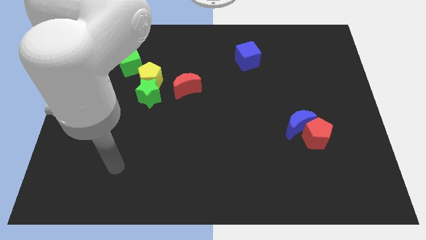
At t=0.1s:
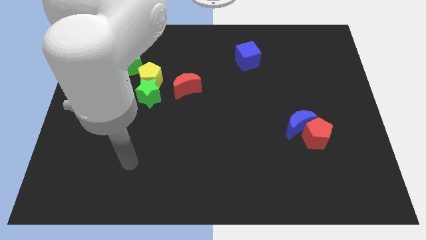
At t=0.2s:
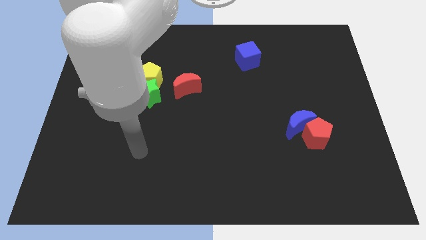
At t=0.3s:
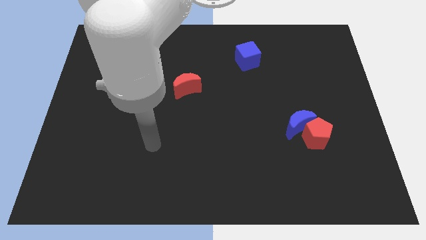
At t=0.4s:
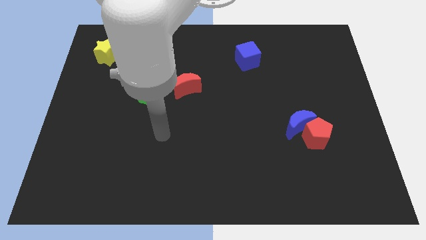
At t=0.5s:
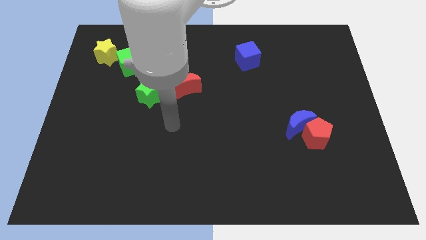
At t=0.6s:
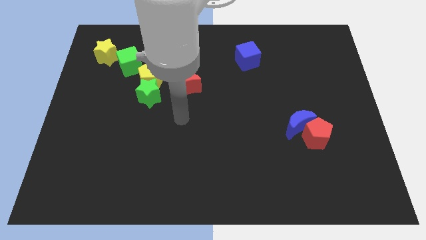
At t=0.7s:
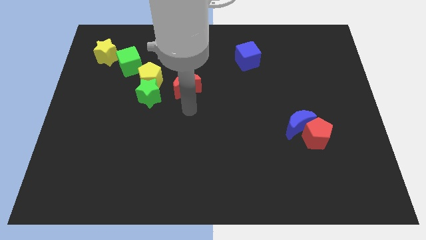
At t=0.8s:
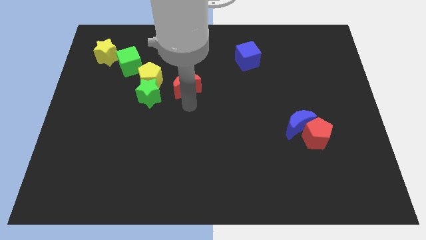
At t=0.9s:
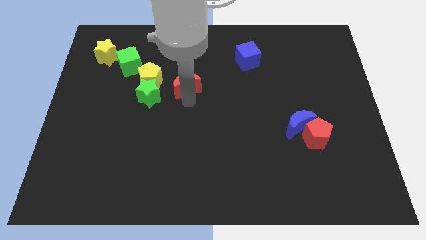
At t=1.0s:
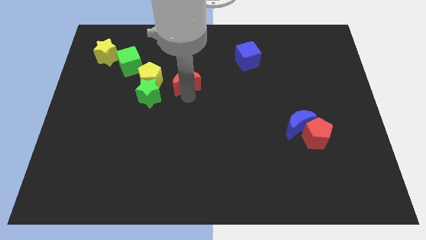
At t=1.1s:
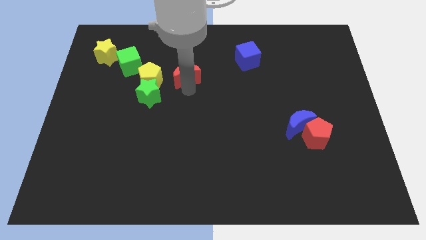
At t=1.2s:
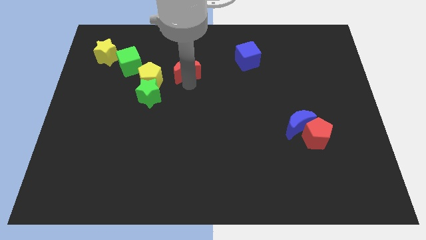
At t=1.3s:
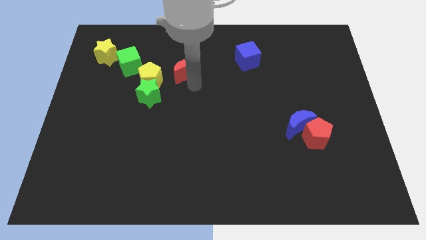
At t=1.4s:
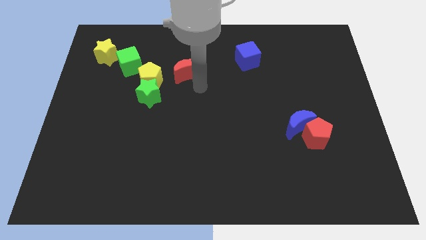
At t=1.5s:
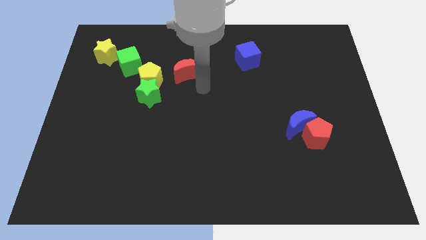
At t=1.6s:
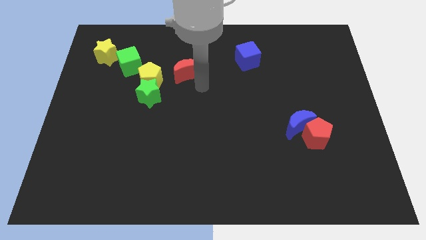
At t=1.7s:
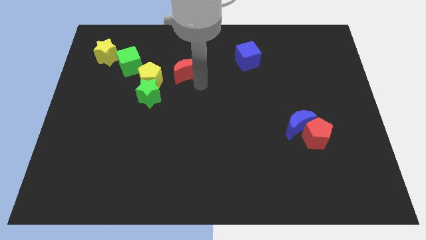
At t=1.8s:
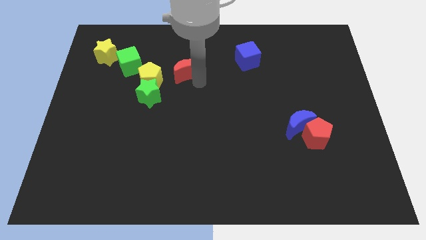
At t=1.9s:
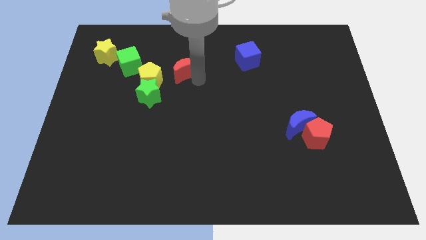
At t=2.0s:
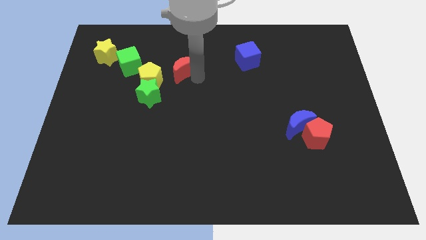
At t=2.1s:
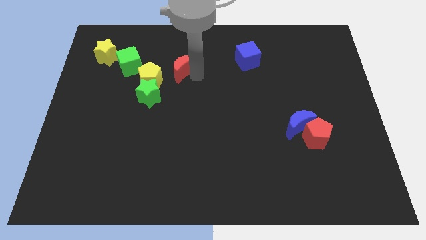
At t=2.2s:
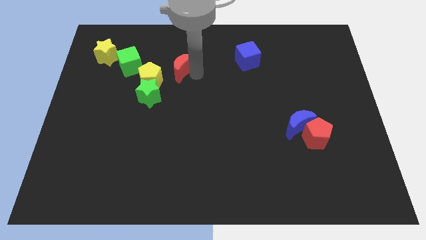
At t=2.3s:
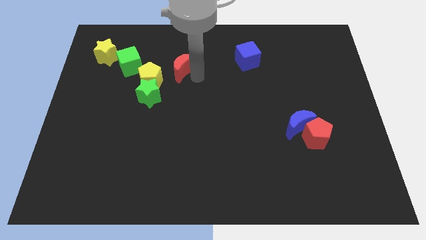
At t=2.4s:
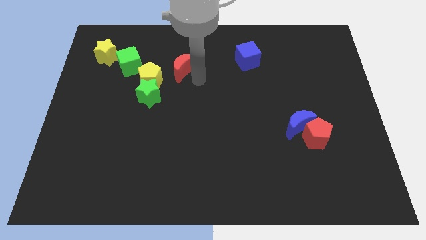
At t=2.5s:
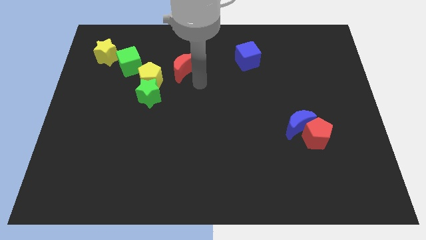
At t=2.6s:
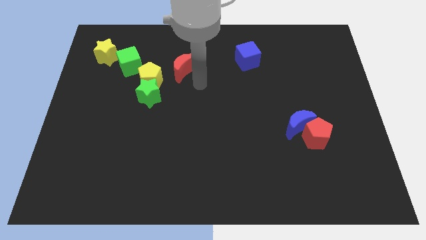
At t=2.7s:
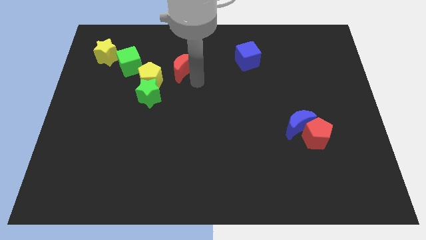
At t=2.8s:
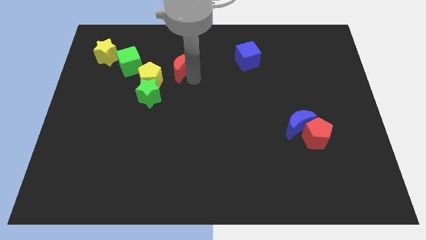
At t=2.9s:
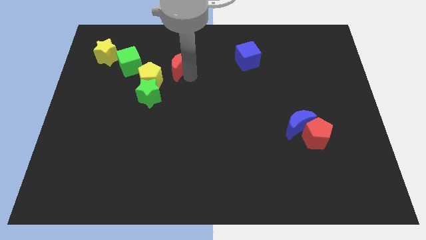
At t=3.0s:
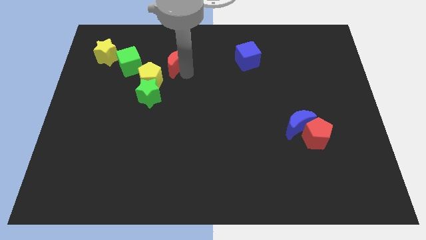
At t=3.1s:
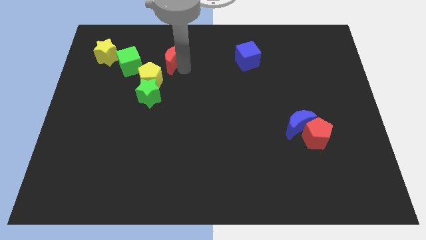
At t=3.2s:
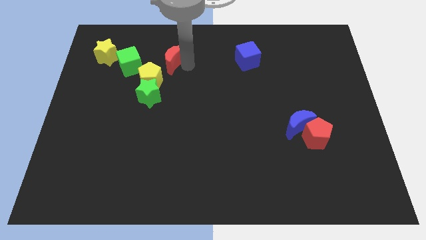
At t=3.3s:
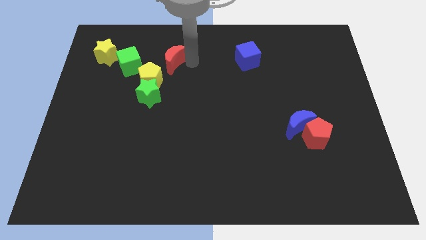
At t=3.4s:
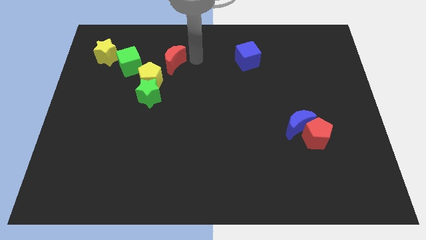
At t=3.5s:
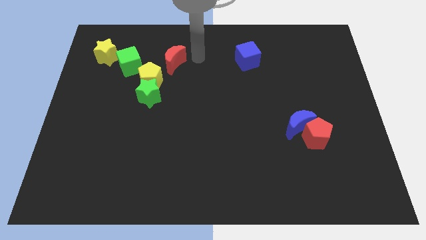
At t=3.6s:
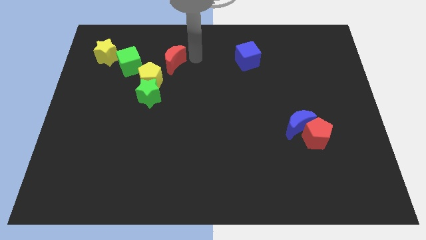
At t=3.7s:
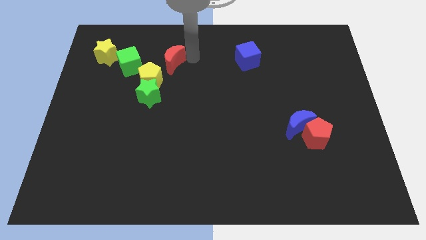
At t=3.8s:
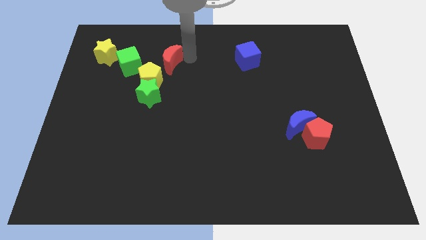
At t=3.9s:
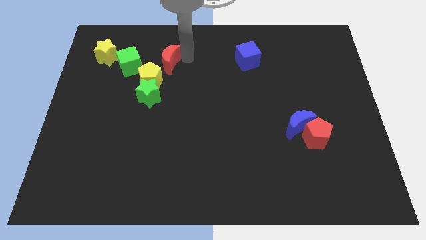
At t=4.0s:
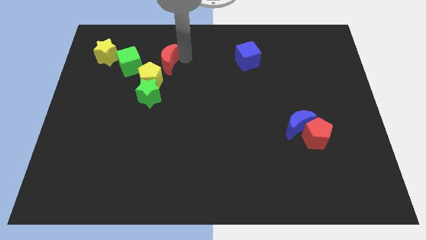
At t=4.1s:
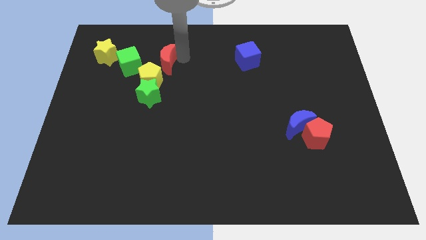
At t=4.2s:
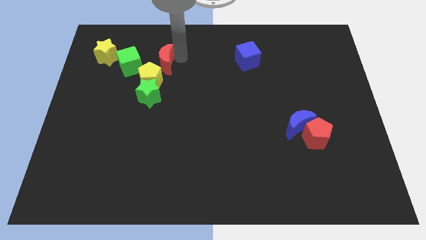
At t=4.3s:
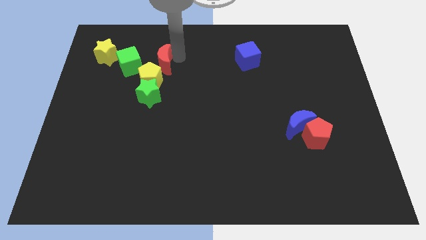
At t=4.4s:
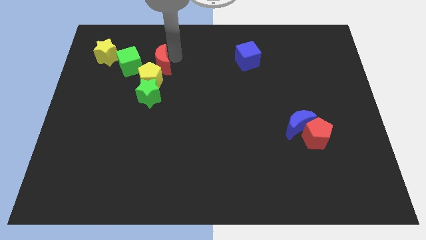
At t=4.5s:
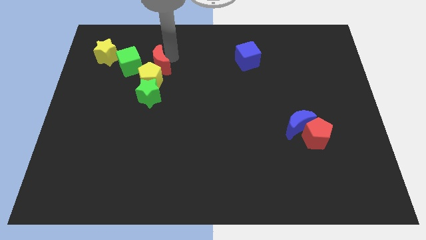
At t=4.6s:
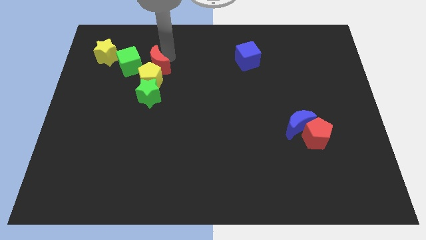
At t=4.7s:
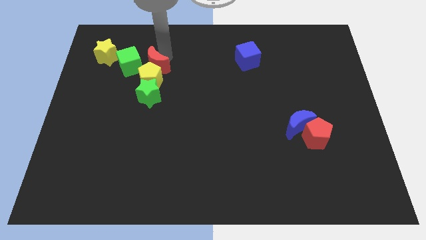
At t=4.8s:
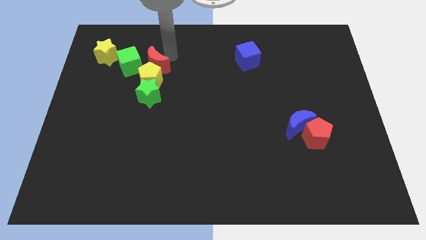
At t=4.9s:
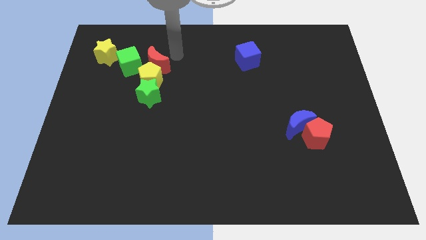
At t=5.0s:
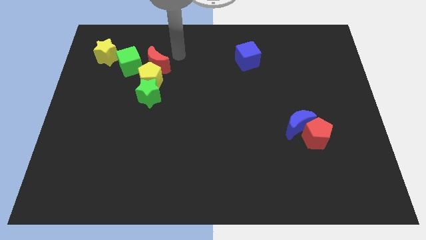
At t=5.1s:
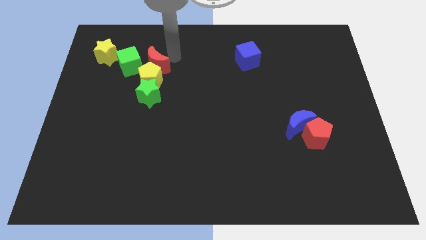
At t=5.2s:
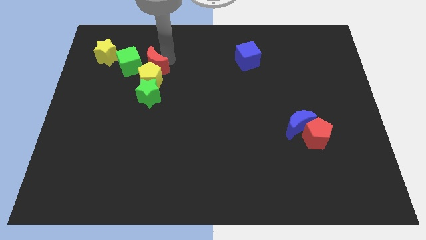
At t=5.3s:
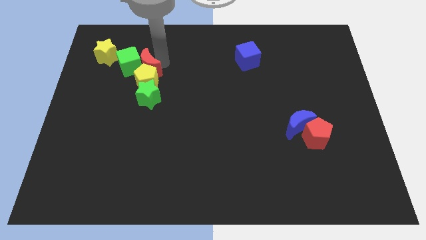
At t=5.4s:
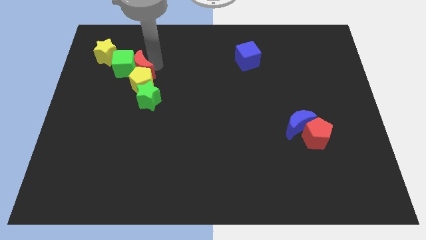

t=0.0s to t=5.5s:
move the red moon to the bottom right of the yellow star

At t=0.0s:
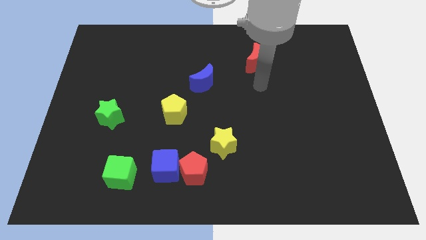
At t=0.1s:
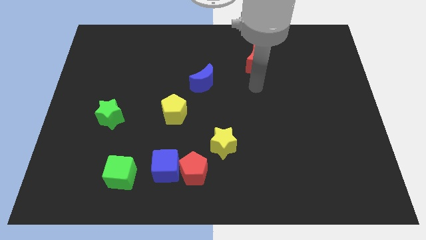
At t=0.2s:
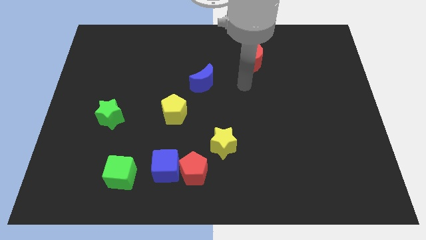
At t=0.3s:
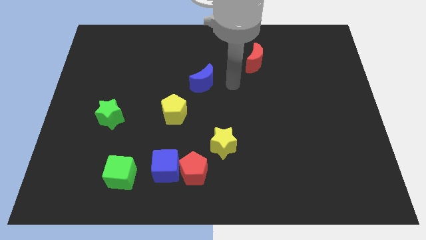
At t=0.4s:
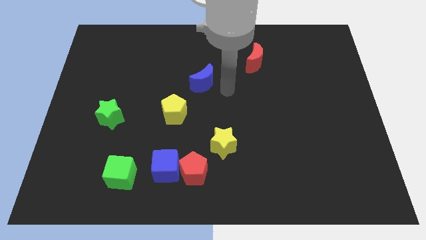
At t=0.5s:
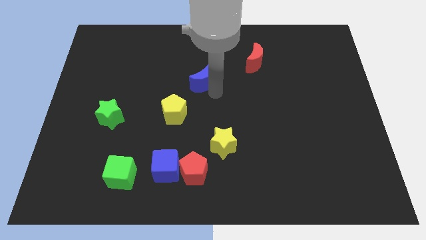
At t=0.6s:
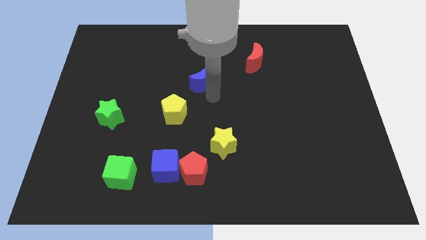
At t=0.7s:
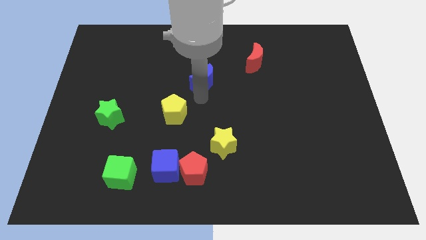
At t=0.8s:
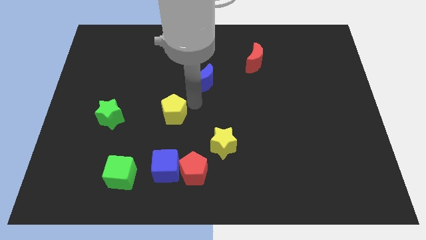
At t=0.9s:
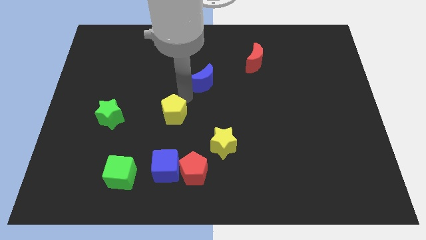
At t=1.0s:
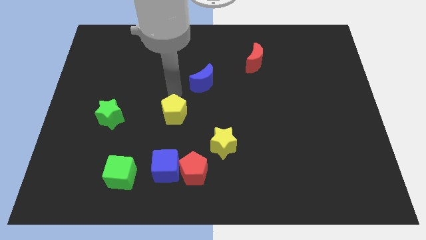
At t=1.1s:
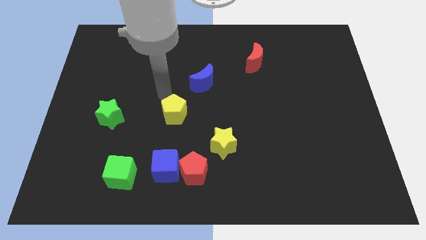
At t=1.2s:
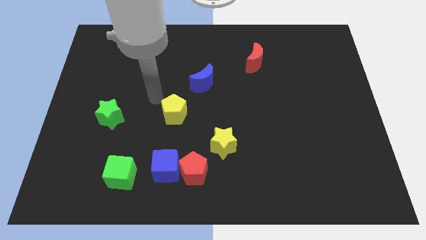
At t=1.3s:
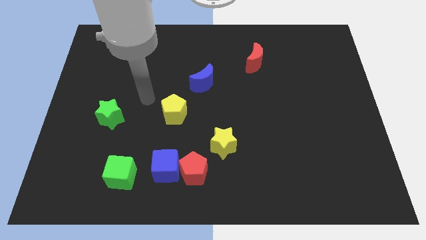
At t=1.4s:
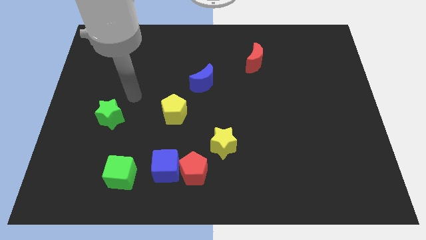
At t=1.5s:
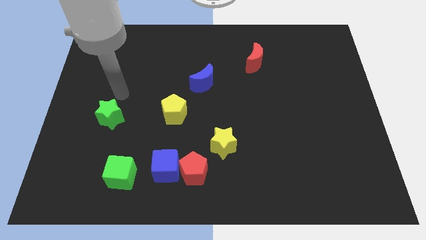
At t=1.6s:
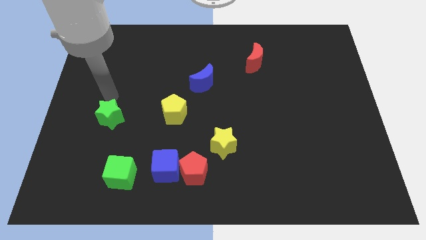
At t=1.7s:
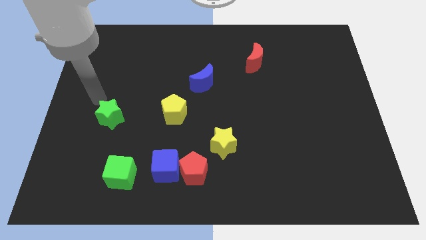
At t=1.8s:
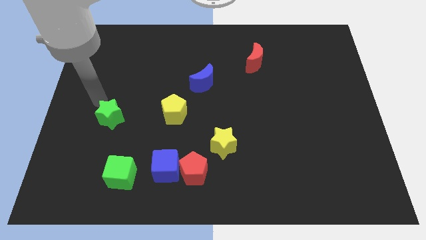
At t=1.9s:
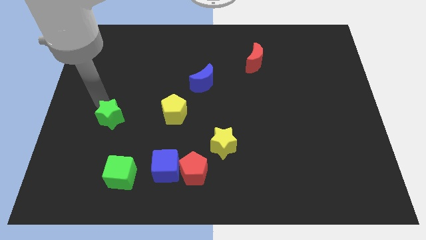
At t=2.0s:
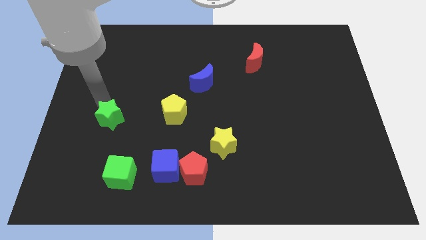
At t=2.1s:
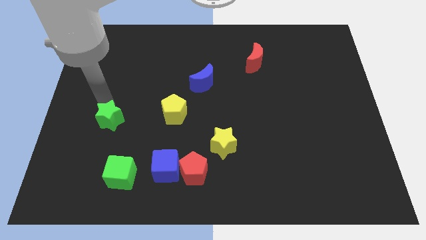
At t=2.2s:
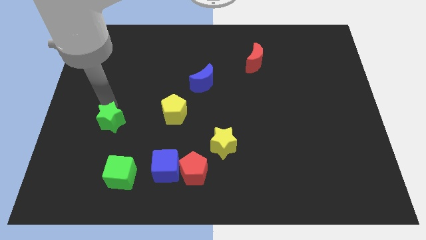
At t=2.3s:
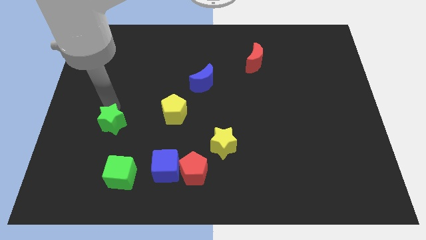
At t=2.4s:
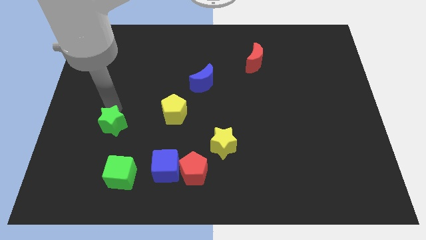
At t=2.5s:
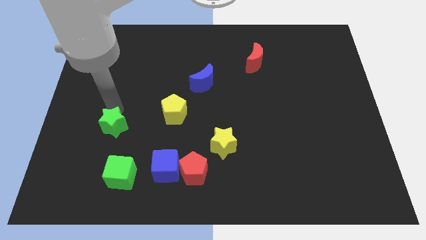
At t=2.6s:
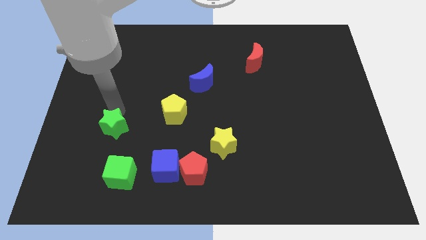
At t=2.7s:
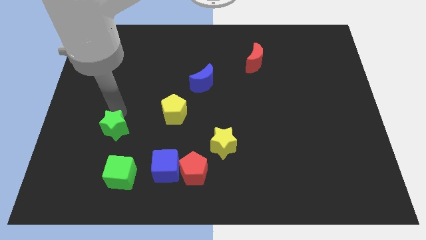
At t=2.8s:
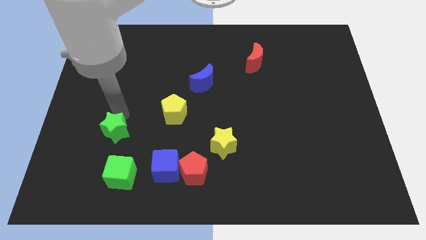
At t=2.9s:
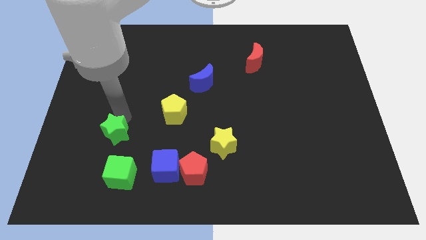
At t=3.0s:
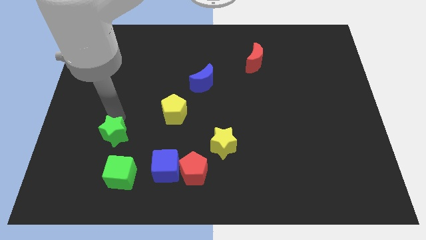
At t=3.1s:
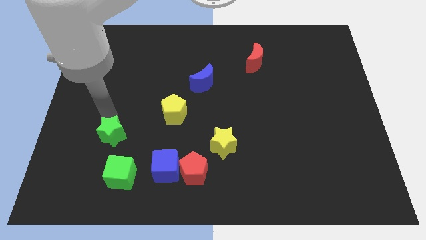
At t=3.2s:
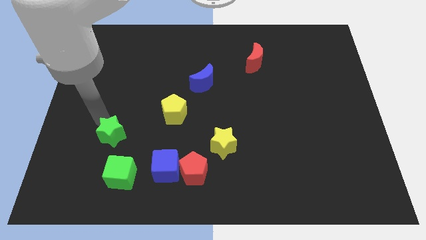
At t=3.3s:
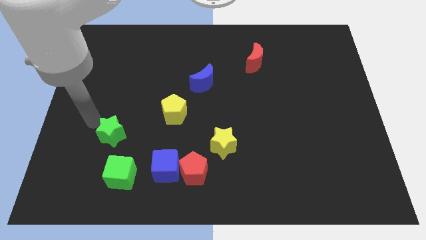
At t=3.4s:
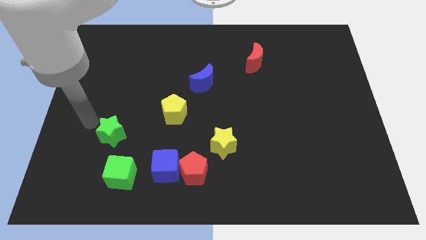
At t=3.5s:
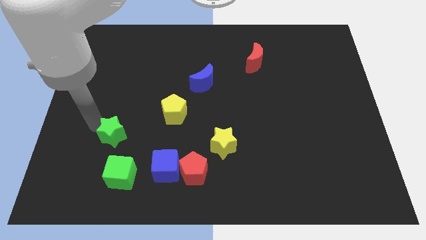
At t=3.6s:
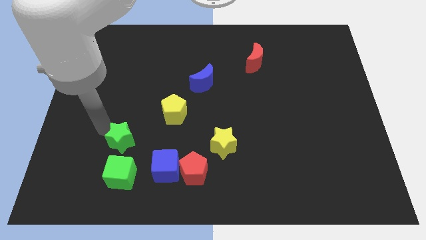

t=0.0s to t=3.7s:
push the green star diagonally up and to the left of the blue cube
